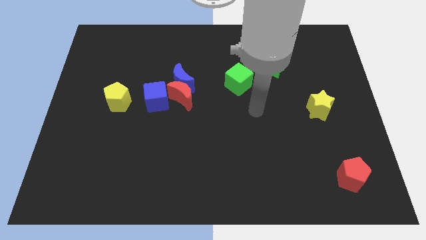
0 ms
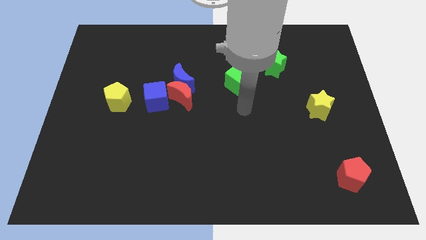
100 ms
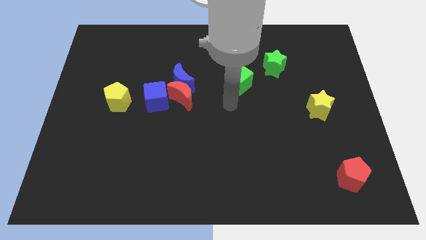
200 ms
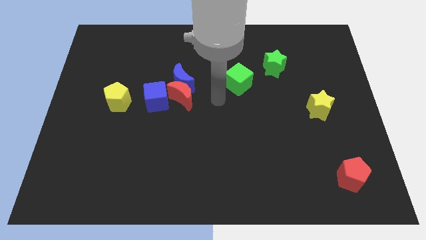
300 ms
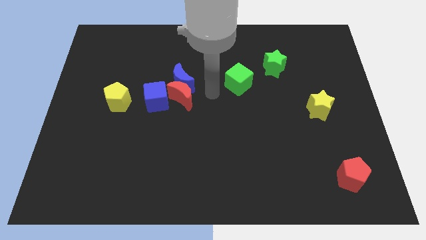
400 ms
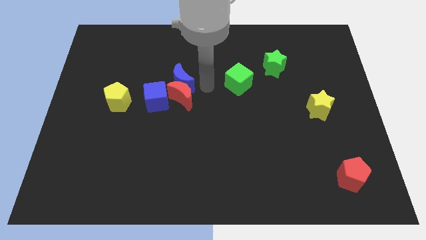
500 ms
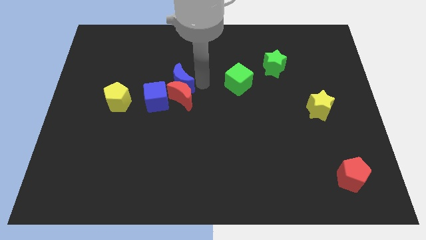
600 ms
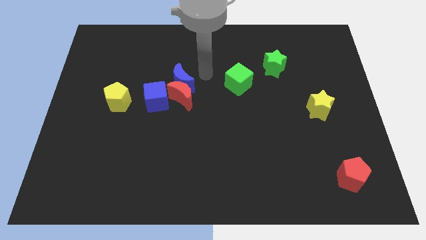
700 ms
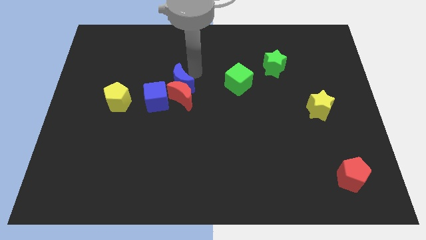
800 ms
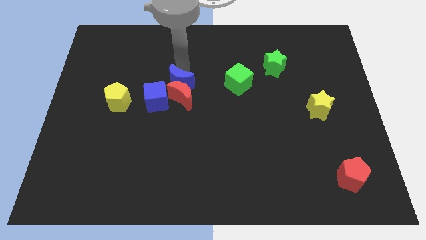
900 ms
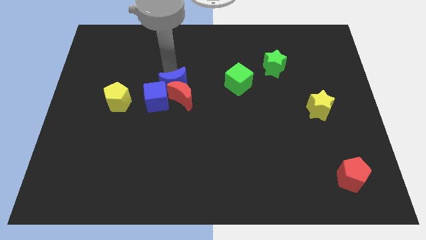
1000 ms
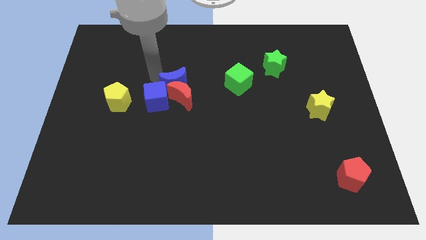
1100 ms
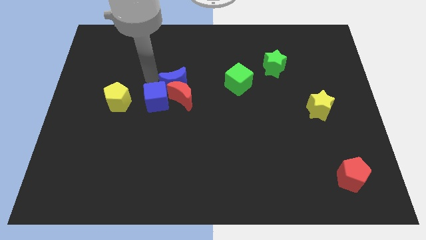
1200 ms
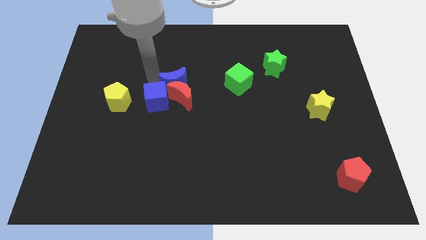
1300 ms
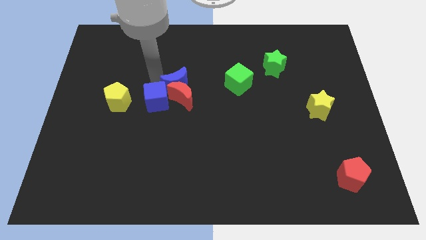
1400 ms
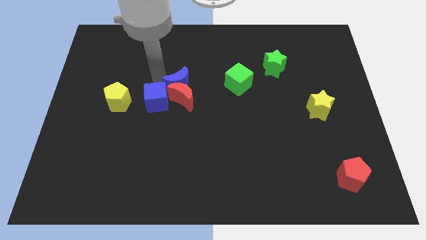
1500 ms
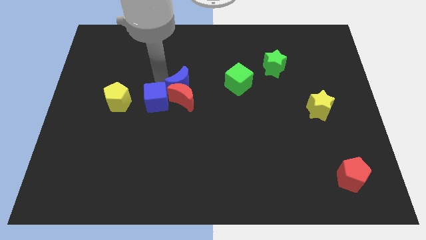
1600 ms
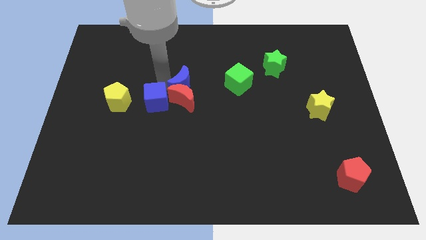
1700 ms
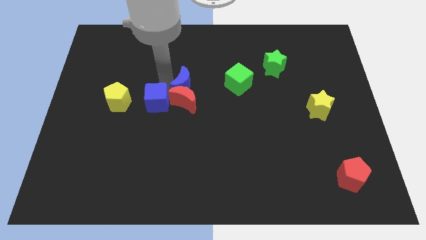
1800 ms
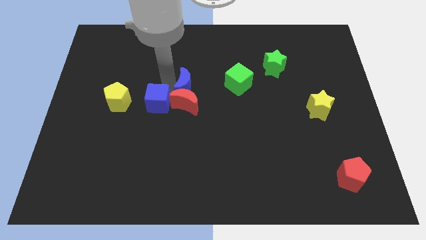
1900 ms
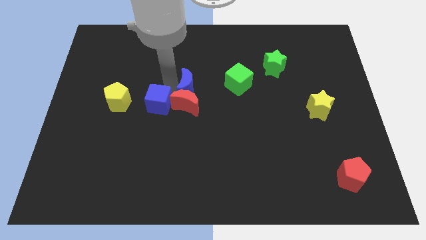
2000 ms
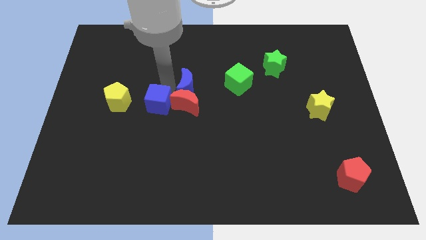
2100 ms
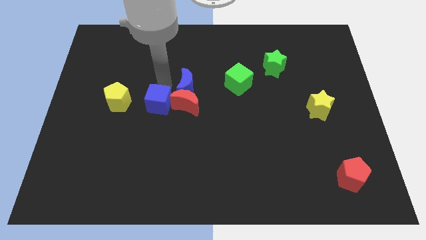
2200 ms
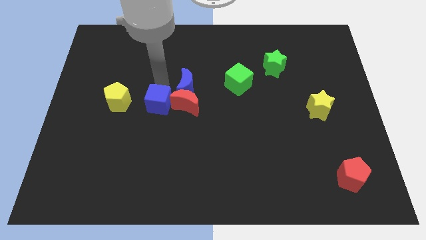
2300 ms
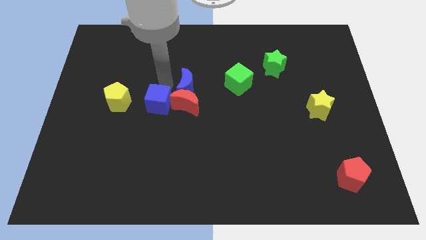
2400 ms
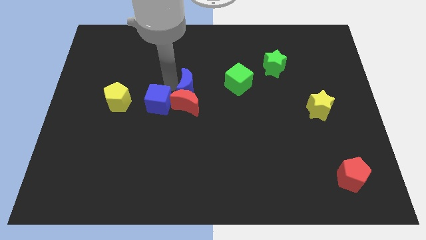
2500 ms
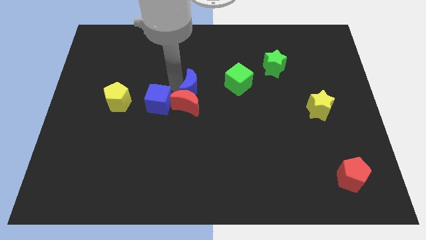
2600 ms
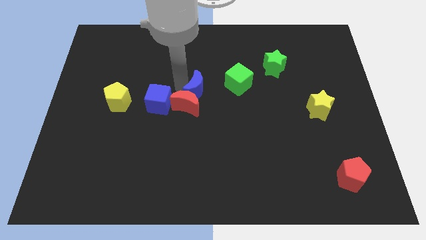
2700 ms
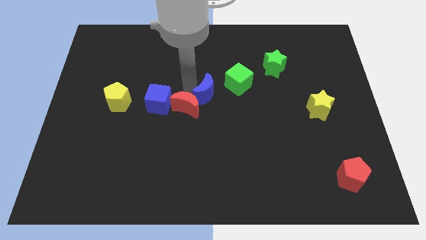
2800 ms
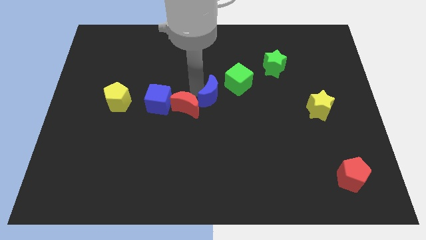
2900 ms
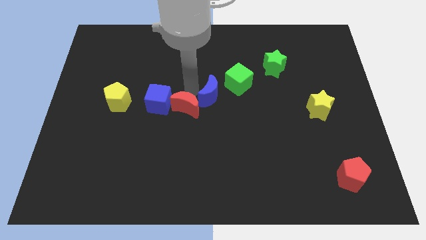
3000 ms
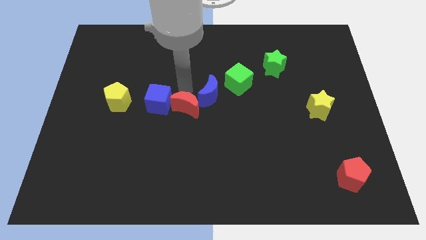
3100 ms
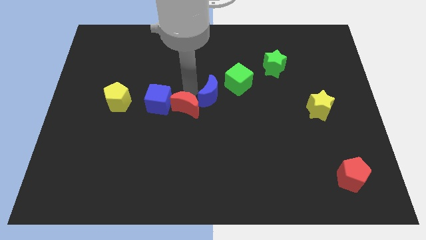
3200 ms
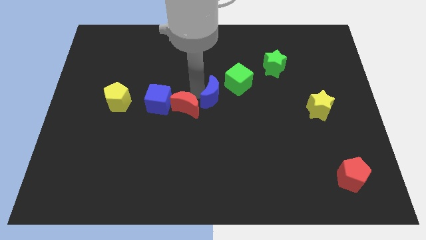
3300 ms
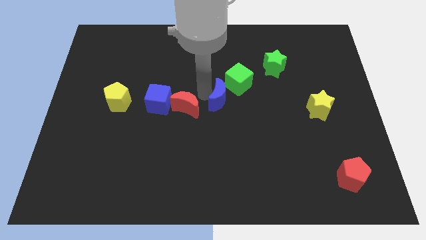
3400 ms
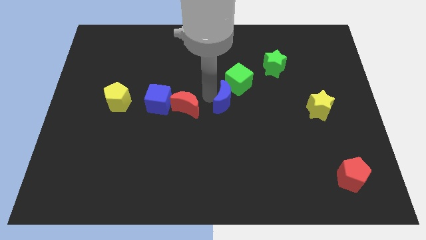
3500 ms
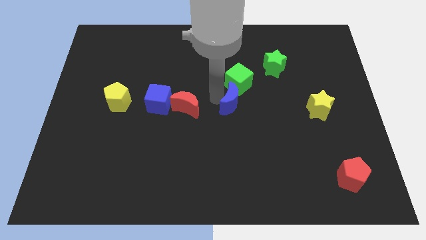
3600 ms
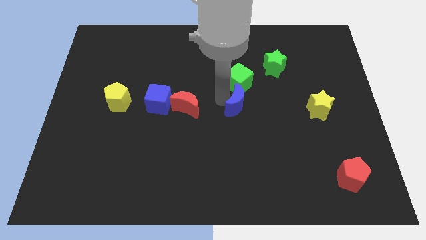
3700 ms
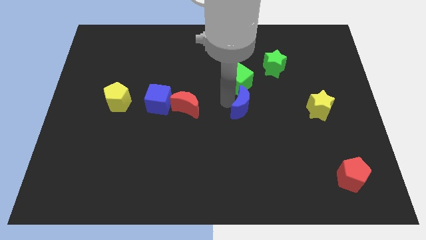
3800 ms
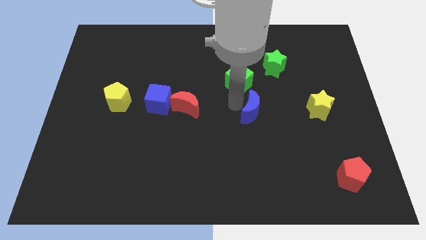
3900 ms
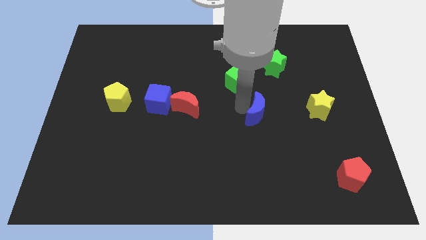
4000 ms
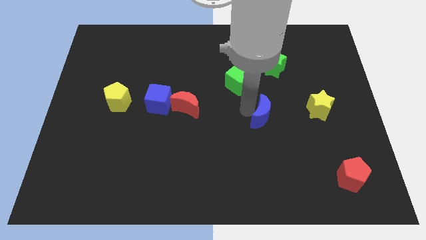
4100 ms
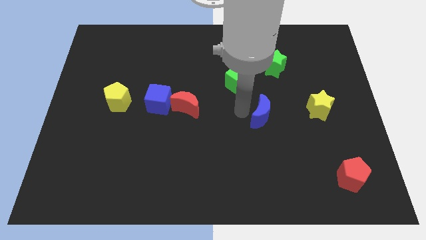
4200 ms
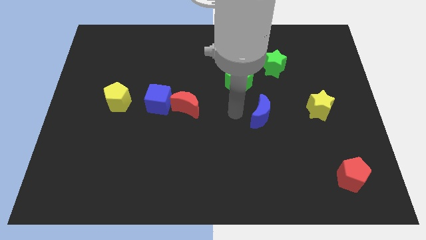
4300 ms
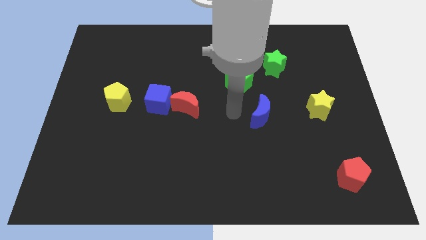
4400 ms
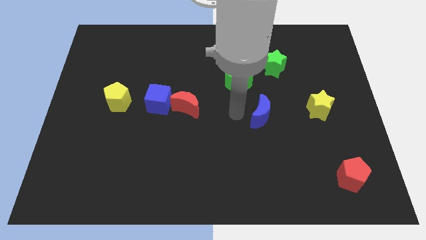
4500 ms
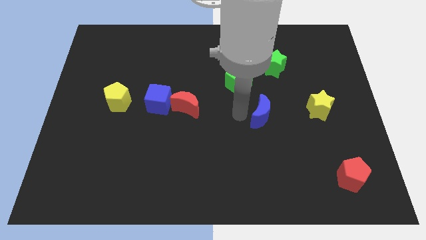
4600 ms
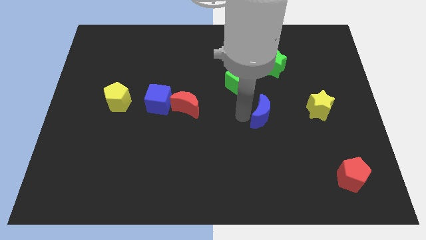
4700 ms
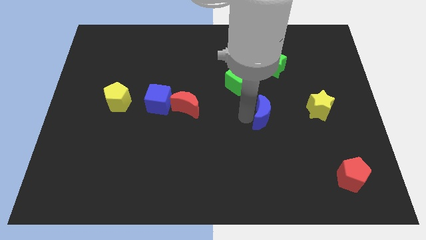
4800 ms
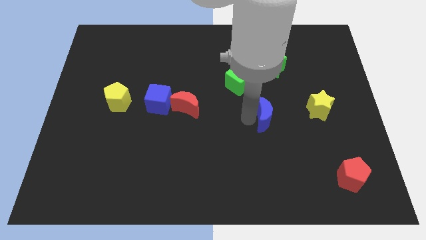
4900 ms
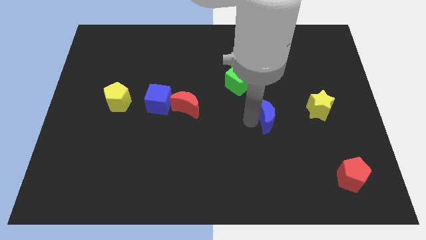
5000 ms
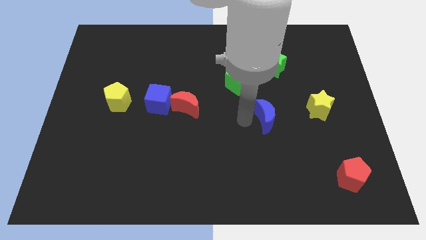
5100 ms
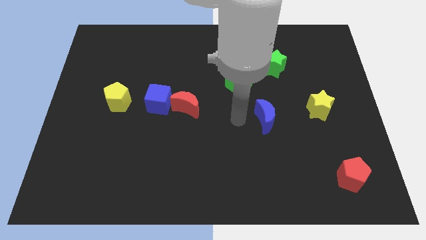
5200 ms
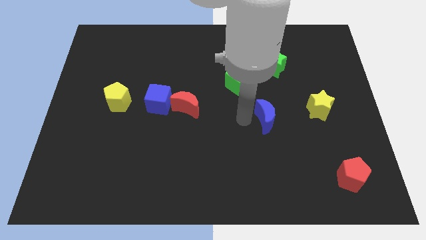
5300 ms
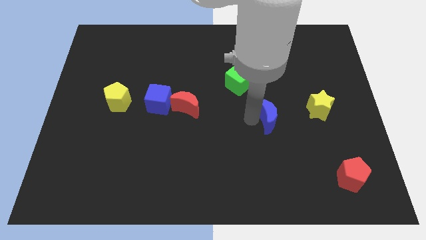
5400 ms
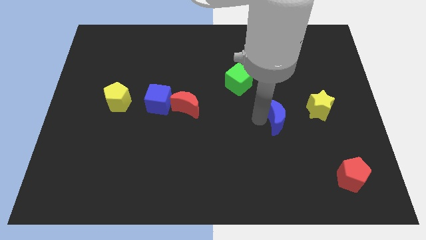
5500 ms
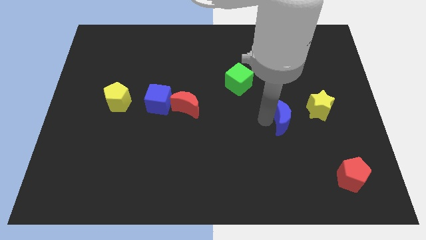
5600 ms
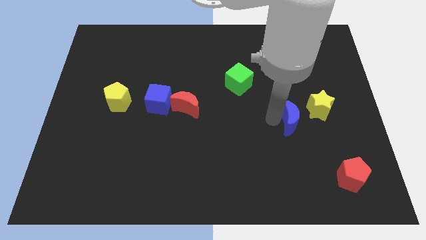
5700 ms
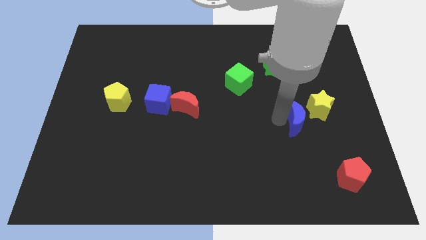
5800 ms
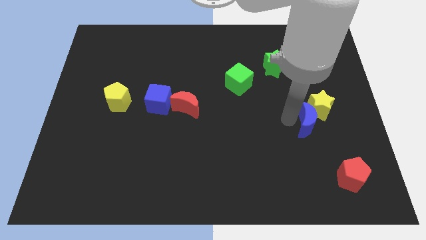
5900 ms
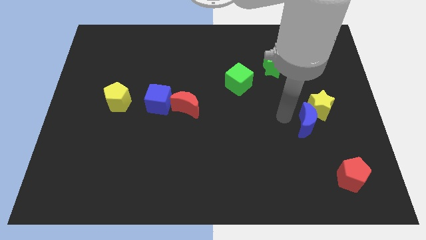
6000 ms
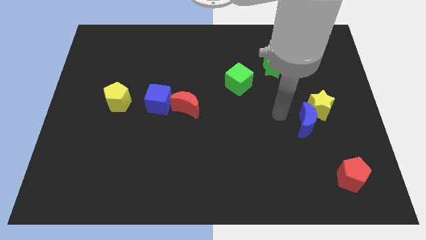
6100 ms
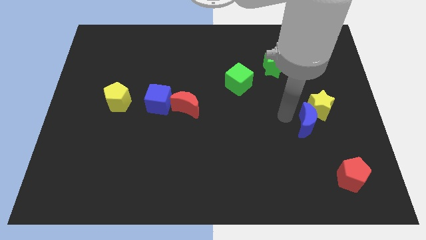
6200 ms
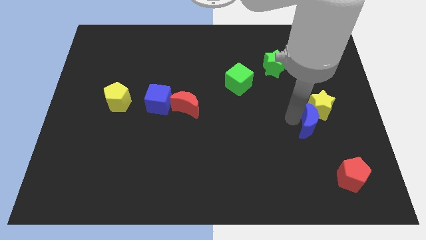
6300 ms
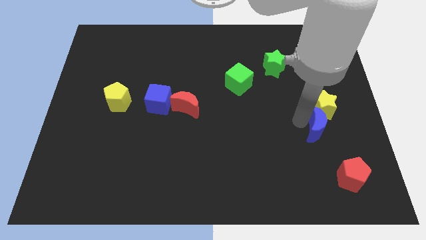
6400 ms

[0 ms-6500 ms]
put the blue moon above the red pentagon

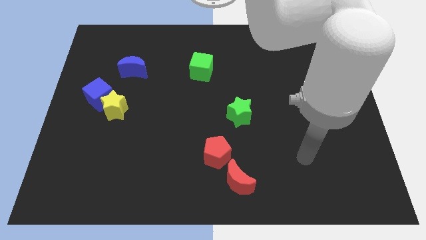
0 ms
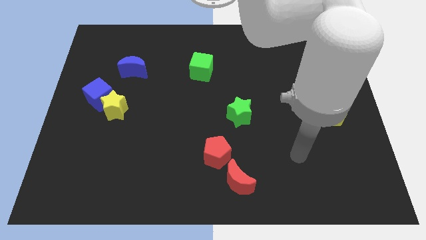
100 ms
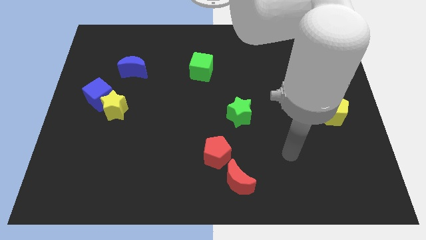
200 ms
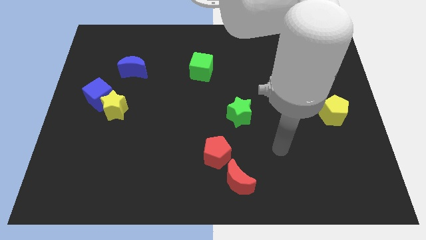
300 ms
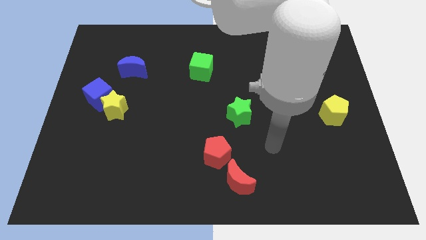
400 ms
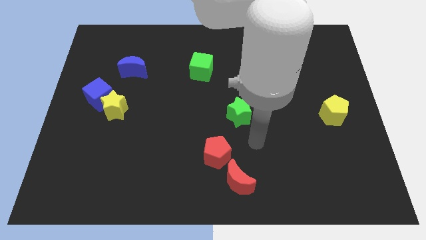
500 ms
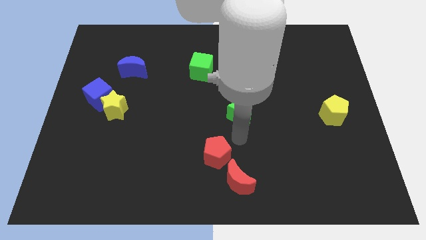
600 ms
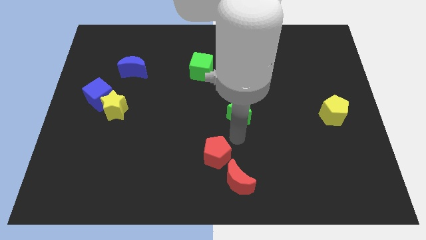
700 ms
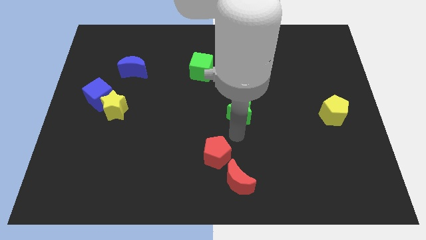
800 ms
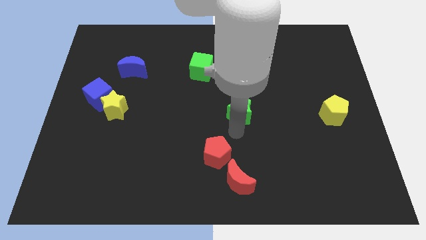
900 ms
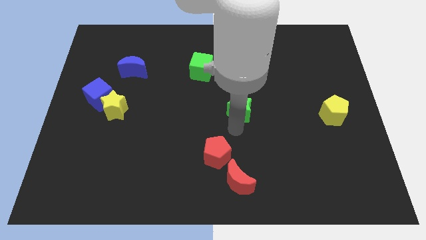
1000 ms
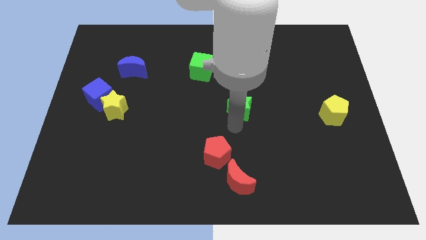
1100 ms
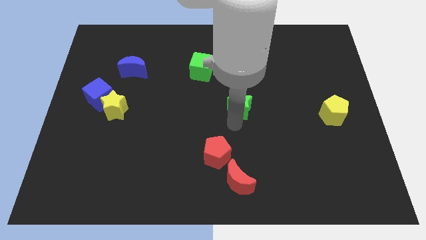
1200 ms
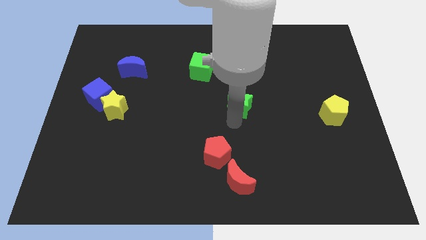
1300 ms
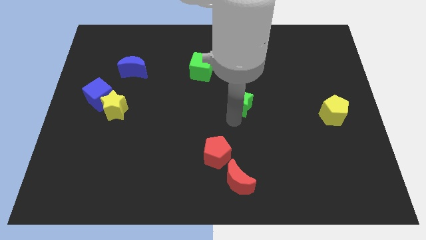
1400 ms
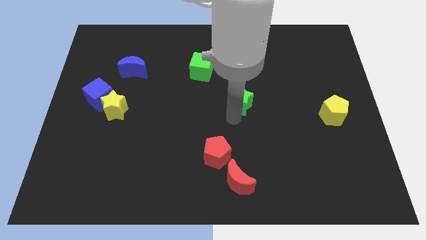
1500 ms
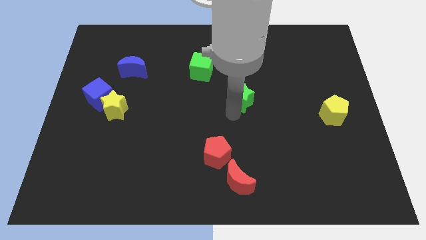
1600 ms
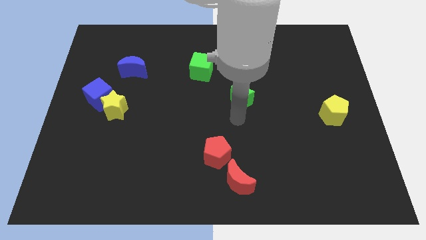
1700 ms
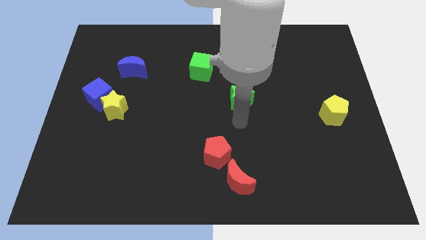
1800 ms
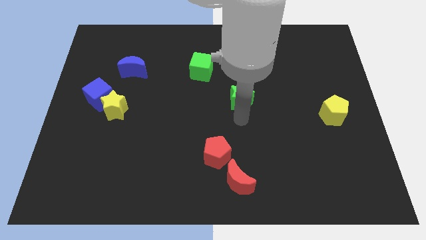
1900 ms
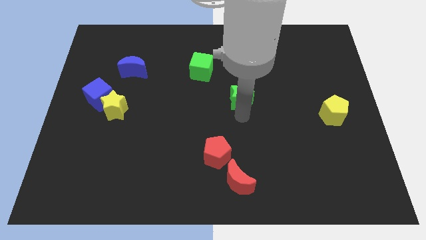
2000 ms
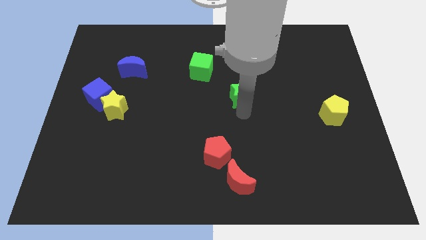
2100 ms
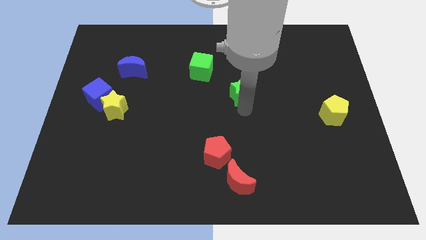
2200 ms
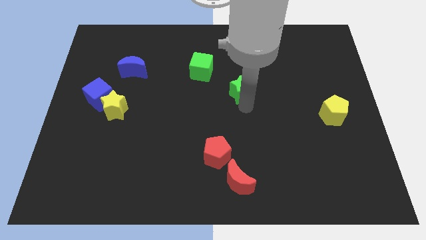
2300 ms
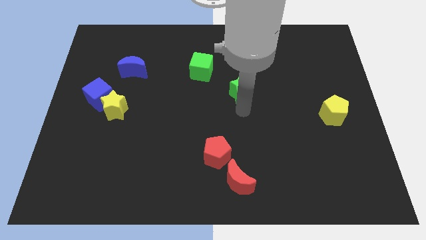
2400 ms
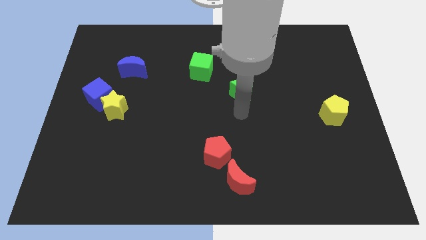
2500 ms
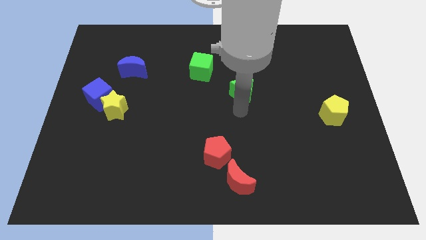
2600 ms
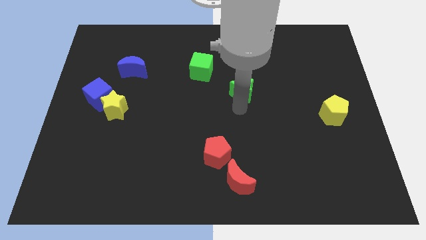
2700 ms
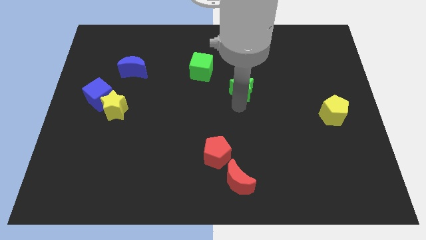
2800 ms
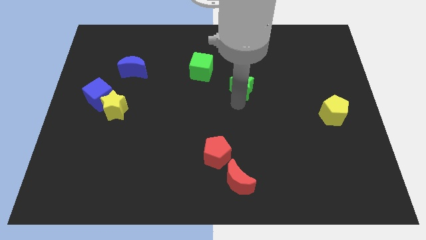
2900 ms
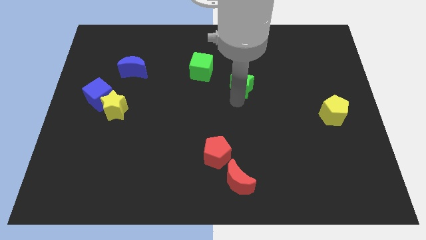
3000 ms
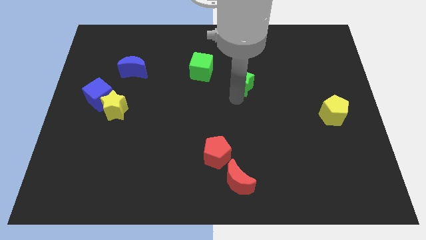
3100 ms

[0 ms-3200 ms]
put the green star right of the green cube
